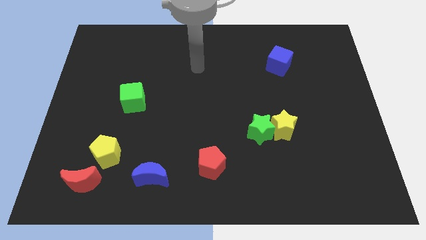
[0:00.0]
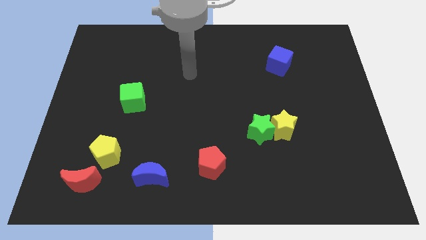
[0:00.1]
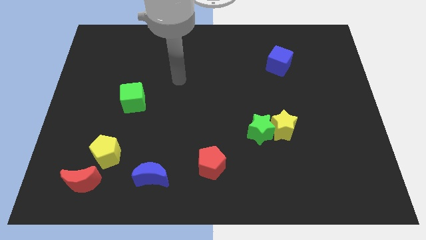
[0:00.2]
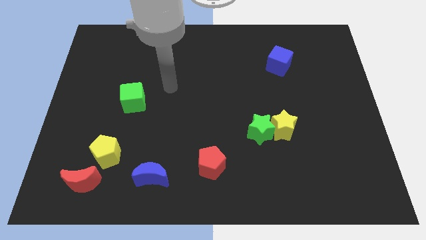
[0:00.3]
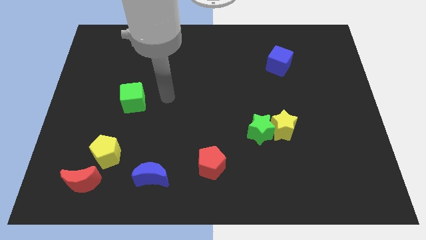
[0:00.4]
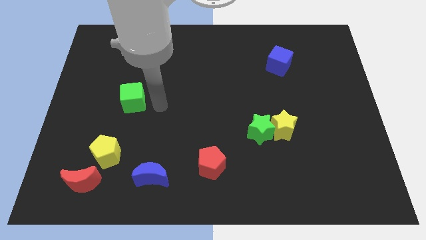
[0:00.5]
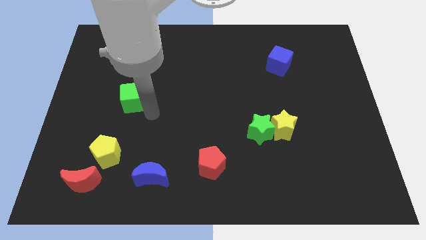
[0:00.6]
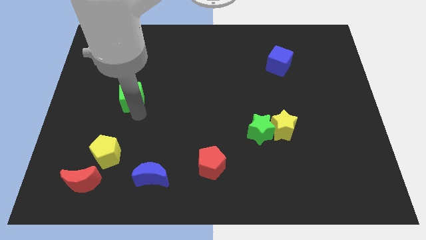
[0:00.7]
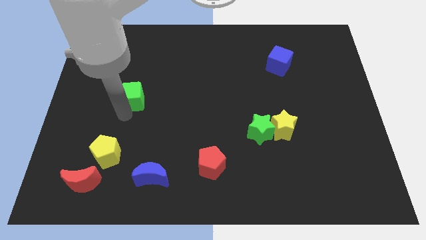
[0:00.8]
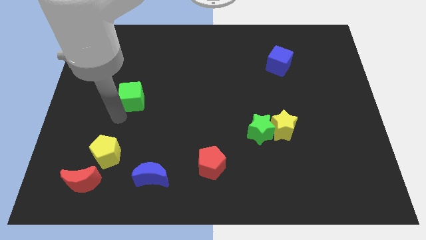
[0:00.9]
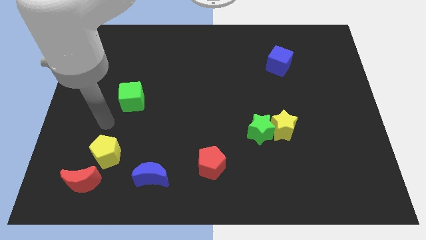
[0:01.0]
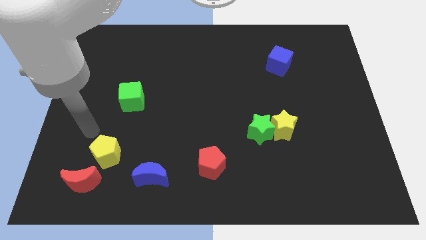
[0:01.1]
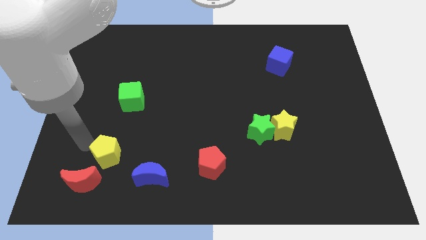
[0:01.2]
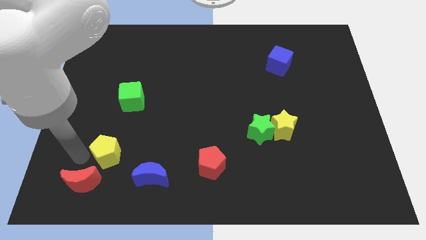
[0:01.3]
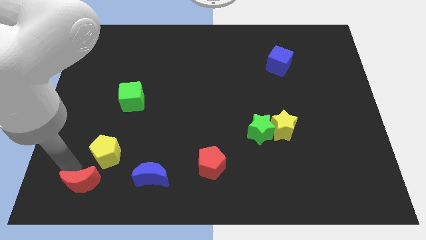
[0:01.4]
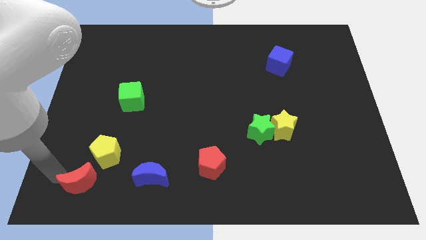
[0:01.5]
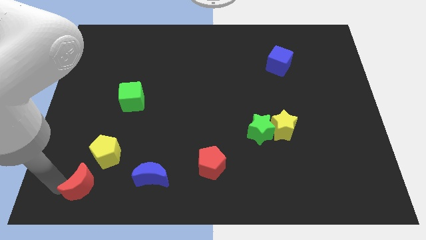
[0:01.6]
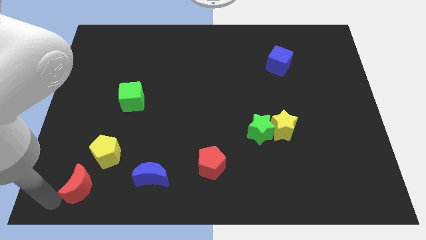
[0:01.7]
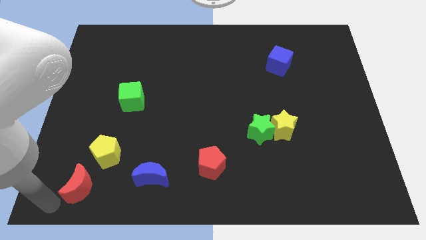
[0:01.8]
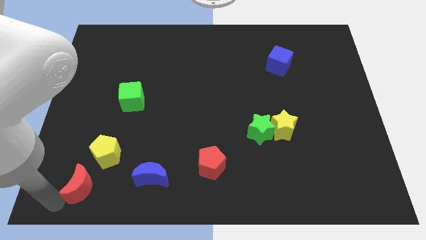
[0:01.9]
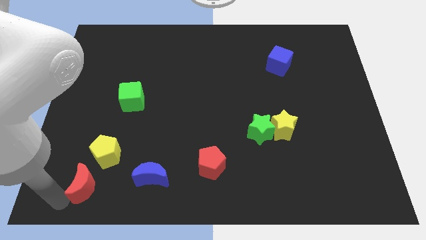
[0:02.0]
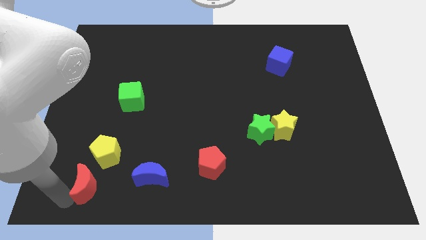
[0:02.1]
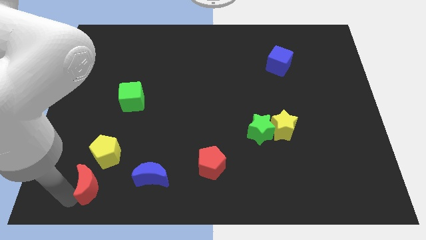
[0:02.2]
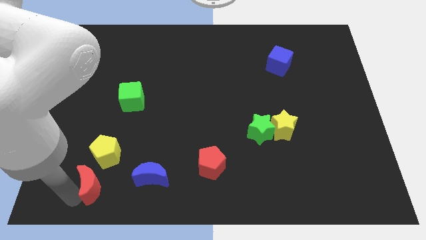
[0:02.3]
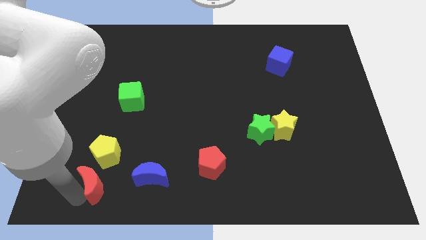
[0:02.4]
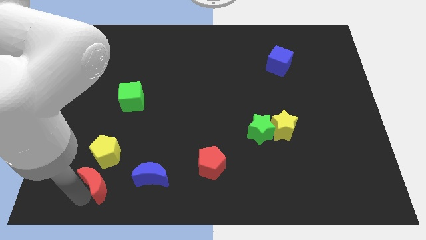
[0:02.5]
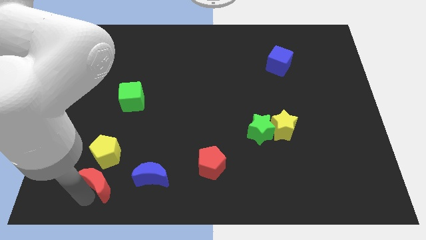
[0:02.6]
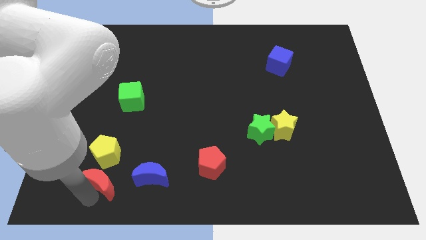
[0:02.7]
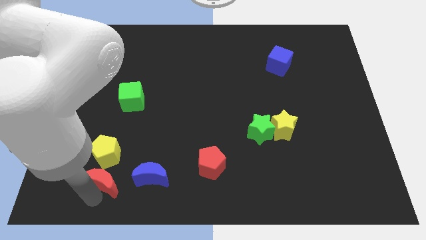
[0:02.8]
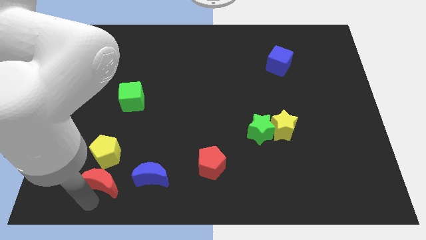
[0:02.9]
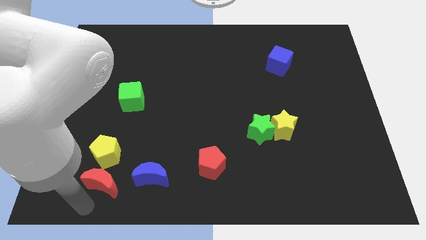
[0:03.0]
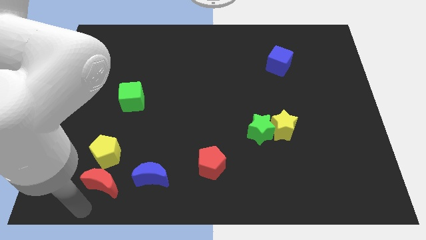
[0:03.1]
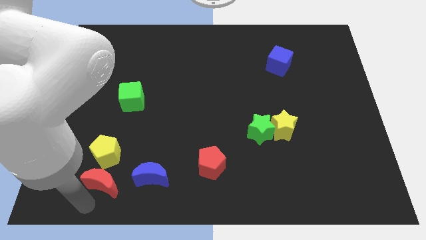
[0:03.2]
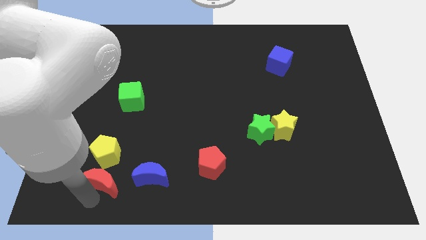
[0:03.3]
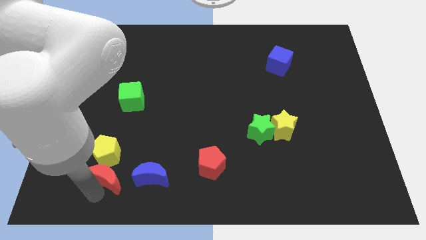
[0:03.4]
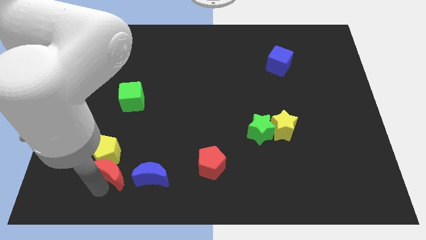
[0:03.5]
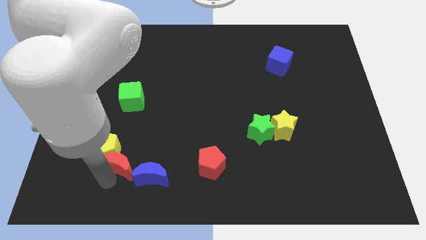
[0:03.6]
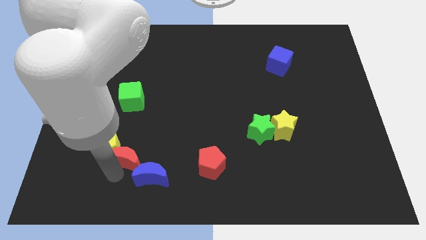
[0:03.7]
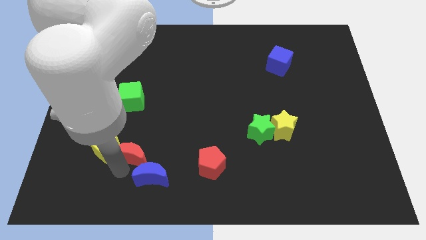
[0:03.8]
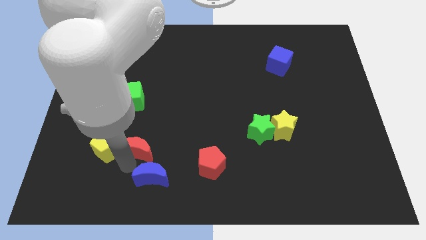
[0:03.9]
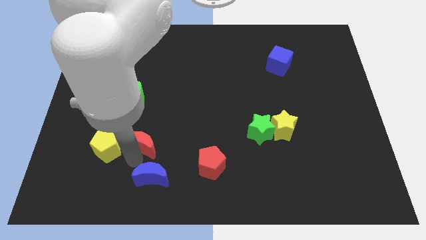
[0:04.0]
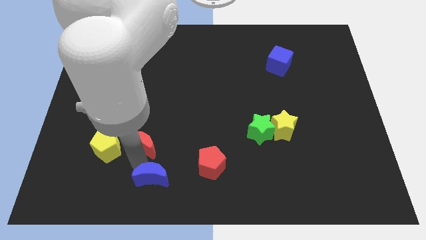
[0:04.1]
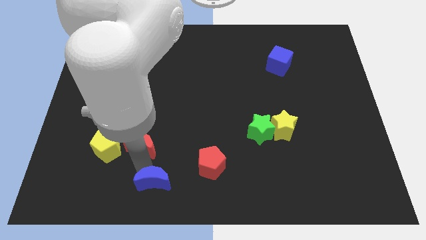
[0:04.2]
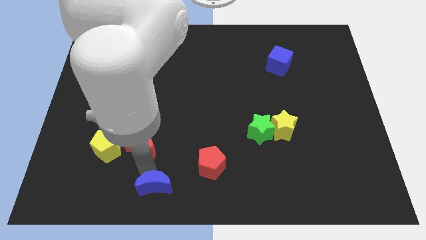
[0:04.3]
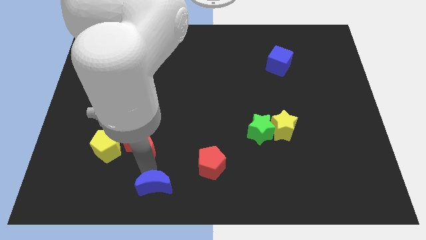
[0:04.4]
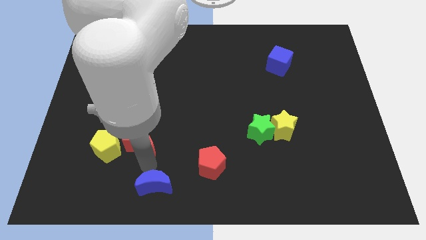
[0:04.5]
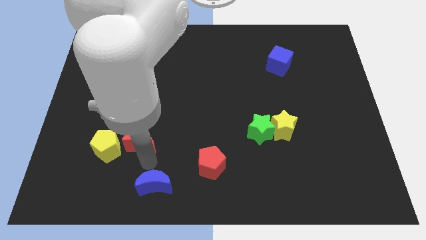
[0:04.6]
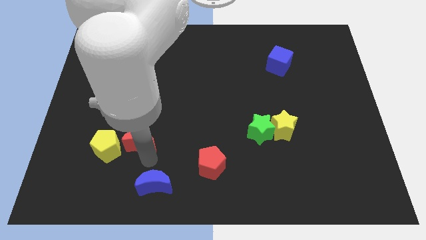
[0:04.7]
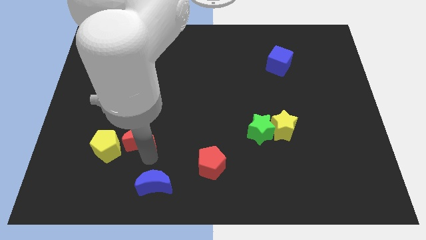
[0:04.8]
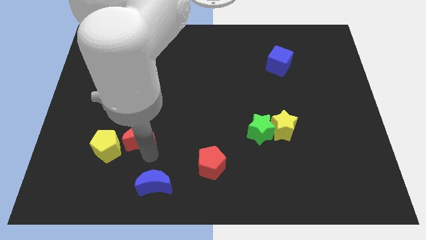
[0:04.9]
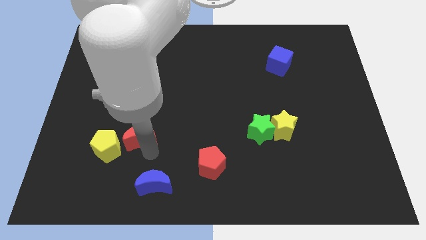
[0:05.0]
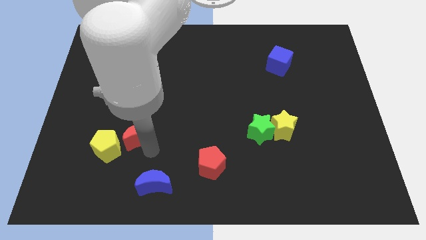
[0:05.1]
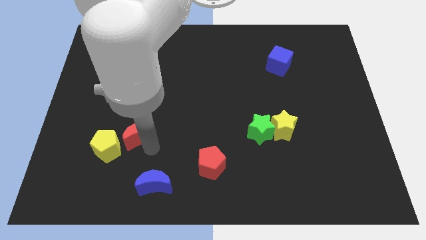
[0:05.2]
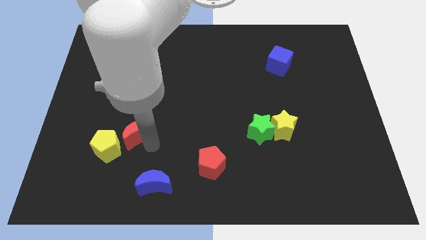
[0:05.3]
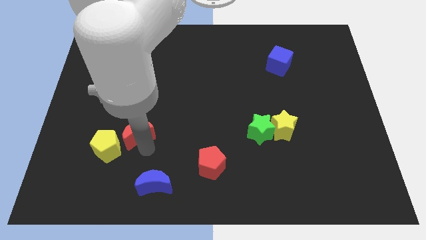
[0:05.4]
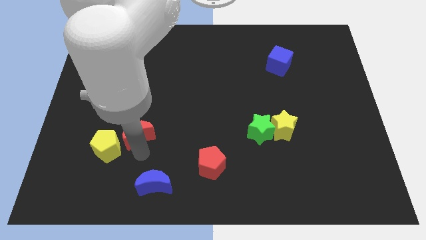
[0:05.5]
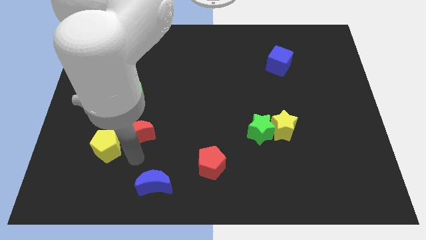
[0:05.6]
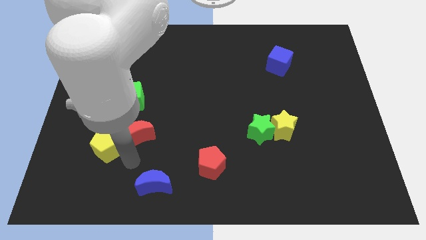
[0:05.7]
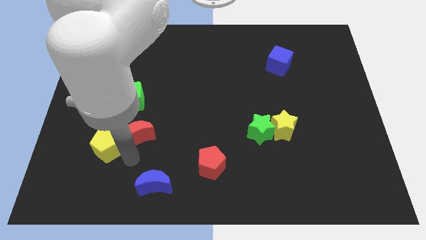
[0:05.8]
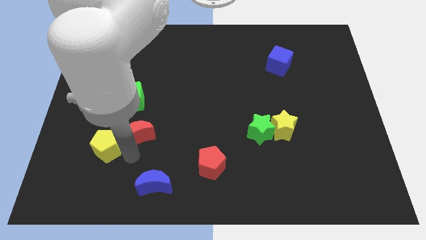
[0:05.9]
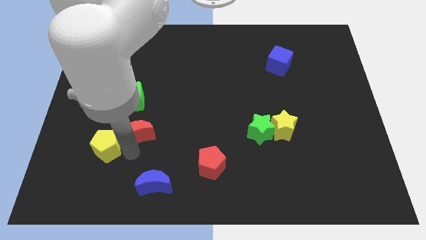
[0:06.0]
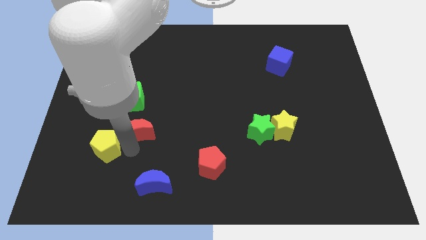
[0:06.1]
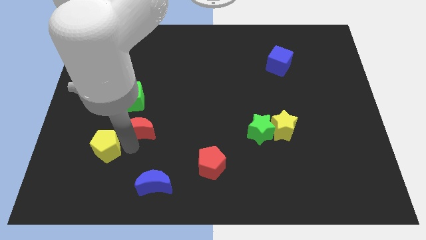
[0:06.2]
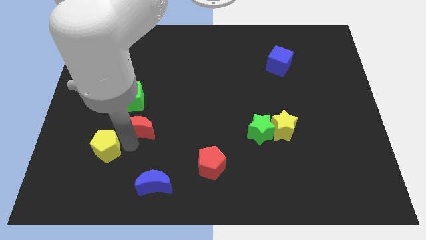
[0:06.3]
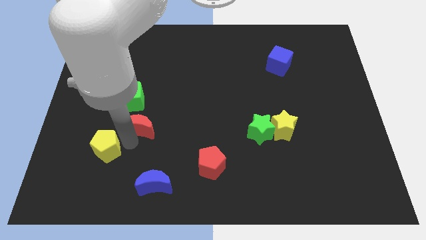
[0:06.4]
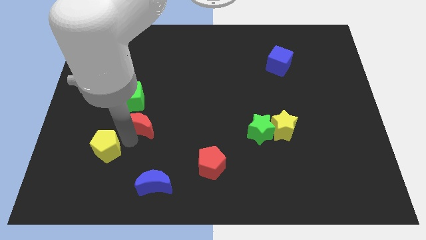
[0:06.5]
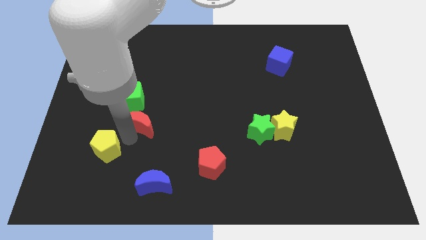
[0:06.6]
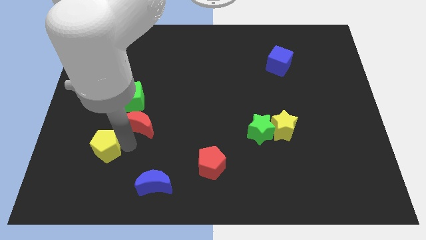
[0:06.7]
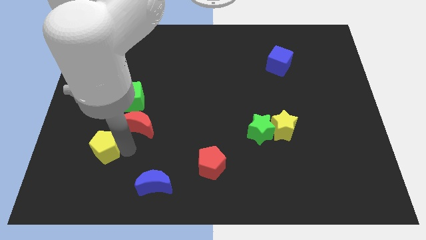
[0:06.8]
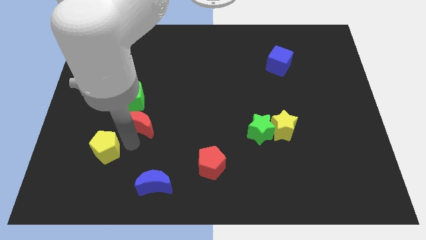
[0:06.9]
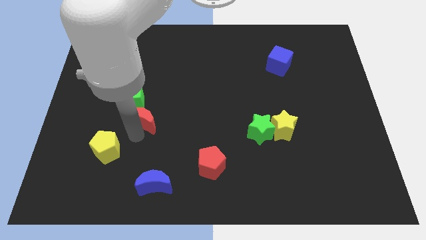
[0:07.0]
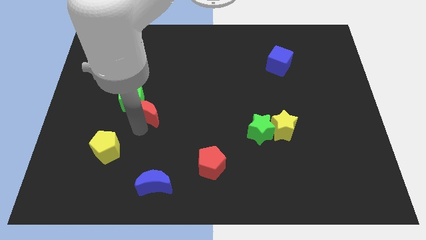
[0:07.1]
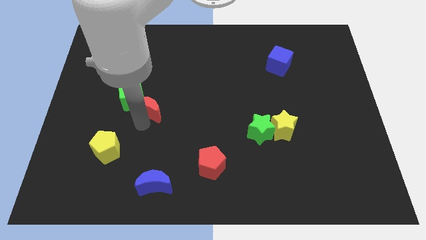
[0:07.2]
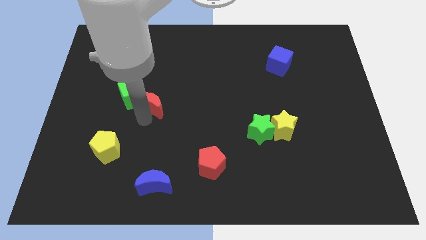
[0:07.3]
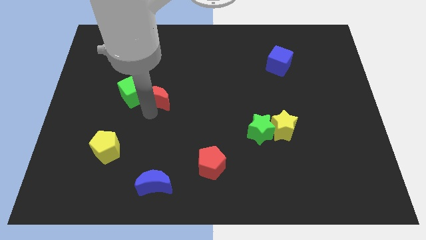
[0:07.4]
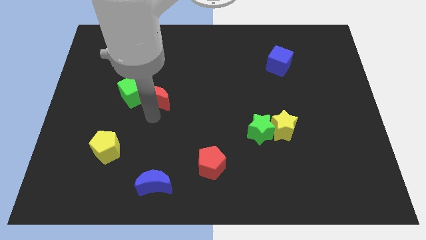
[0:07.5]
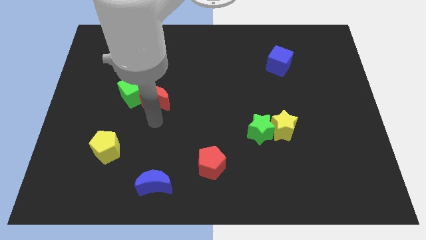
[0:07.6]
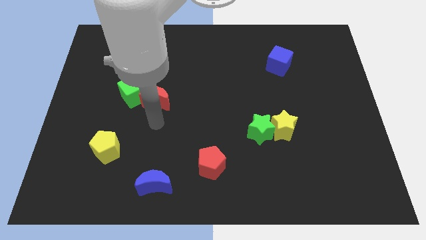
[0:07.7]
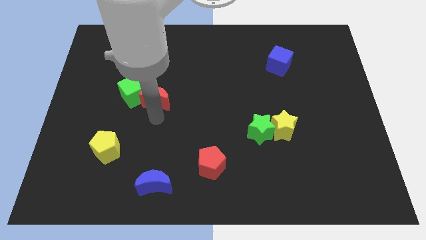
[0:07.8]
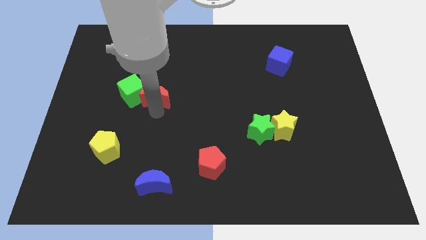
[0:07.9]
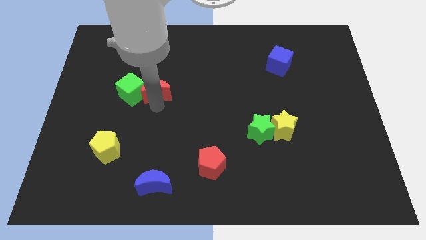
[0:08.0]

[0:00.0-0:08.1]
put the red moon to the top right side of the green cube

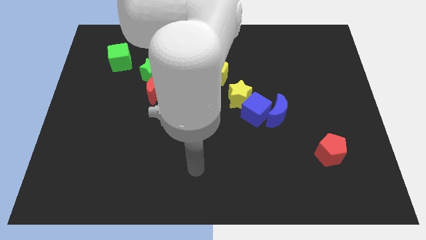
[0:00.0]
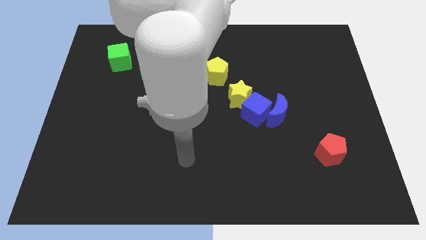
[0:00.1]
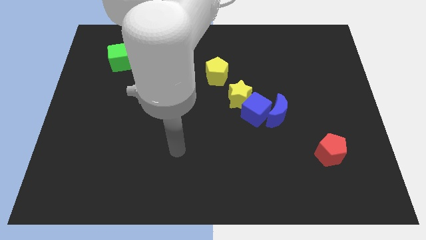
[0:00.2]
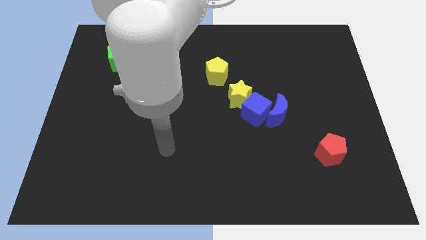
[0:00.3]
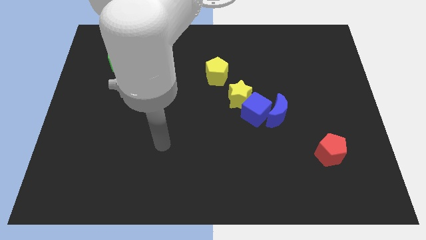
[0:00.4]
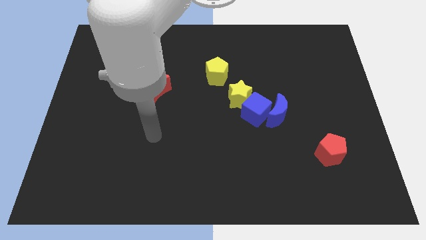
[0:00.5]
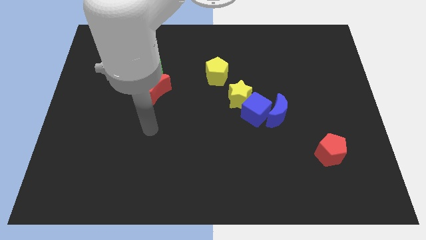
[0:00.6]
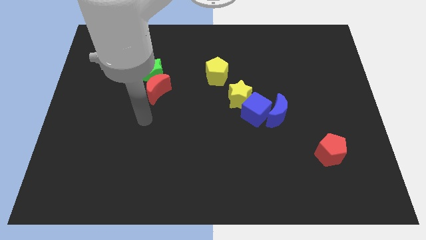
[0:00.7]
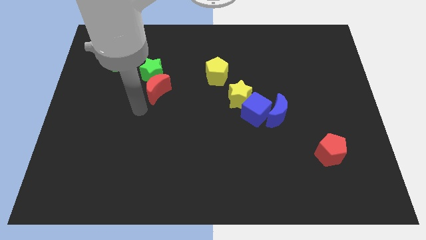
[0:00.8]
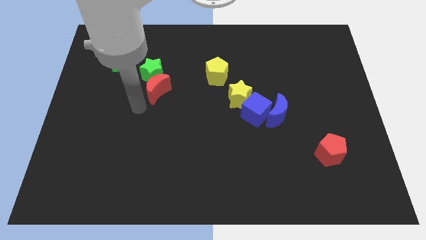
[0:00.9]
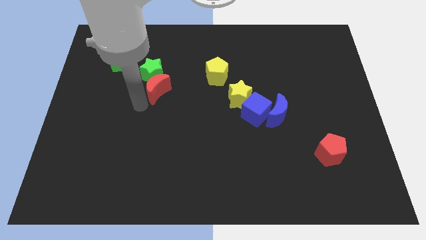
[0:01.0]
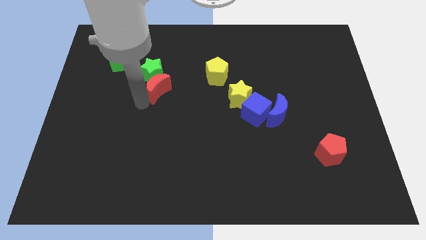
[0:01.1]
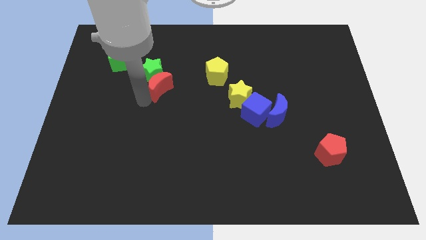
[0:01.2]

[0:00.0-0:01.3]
push the red moon to the left of the yellow pentagon
